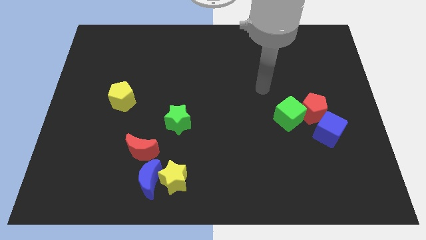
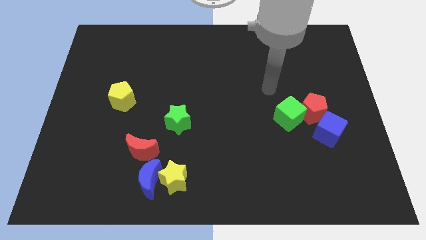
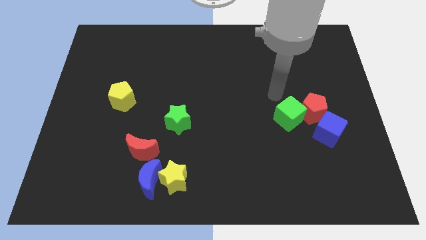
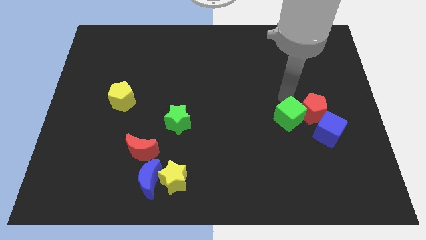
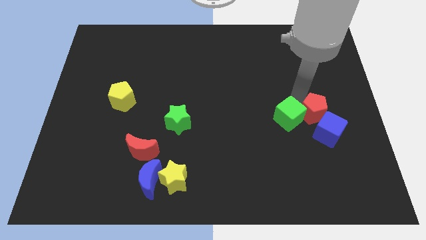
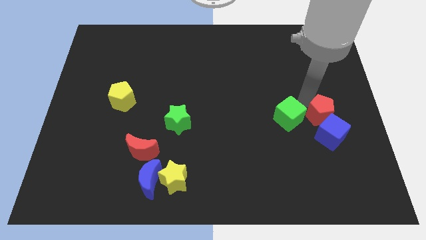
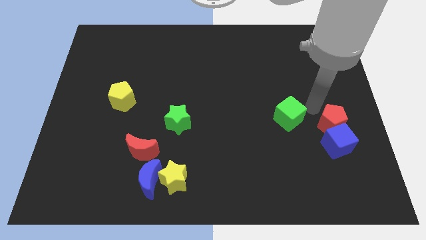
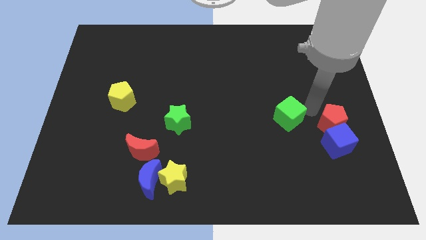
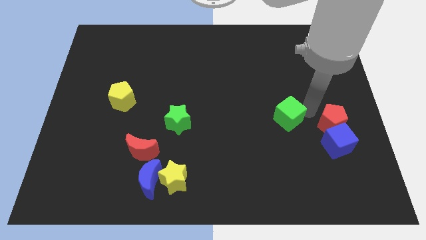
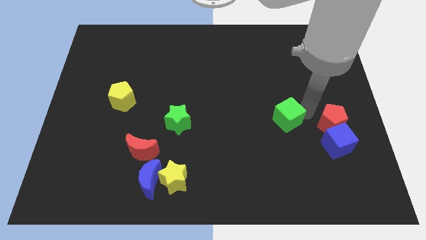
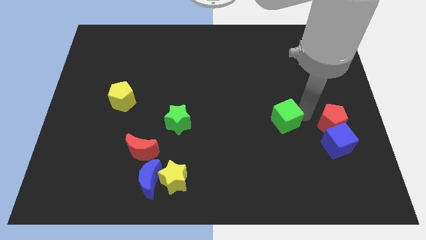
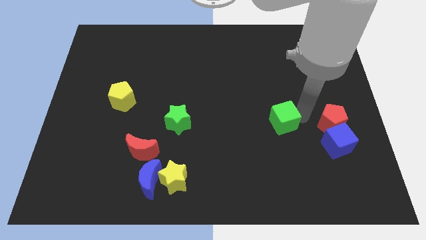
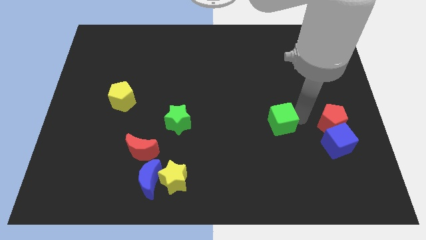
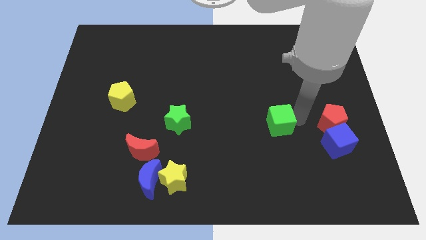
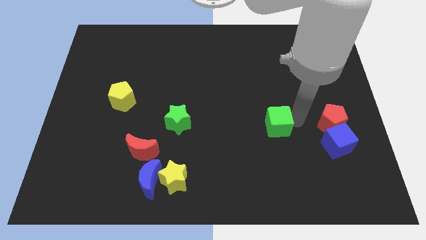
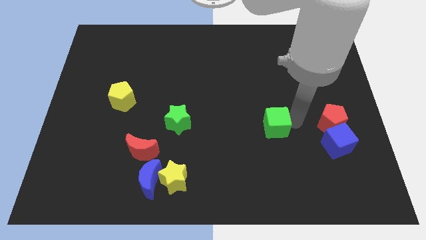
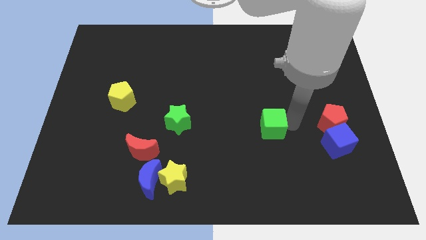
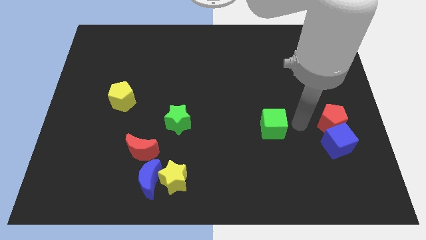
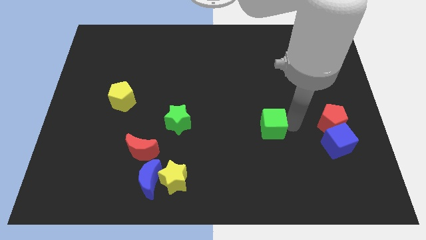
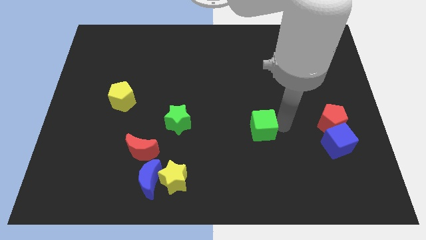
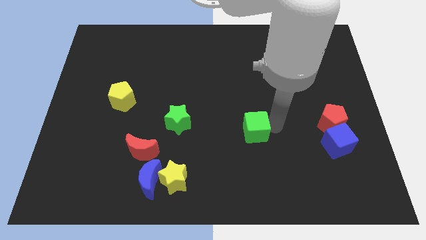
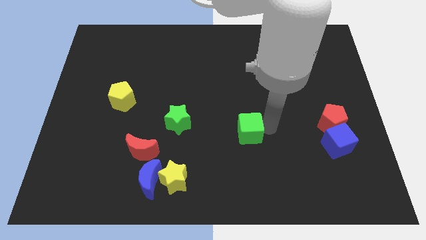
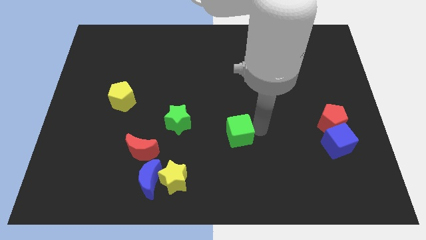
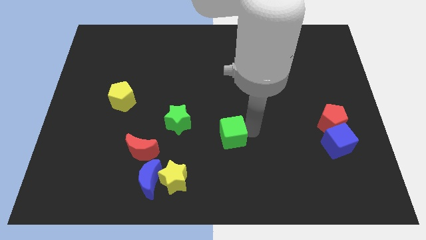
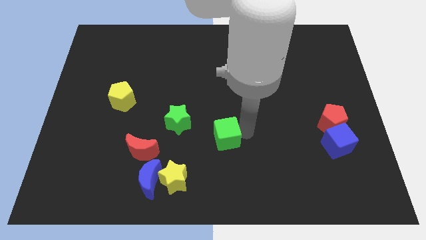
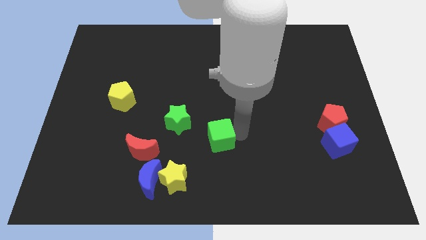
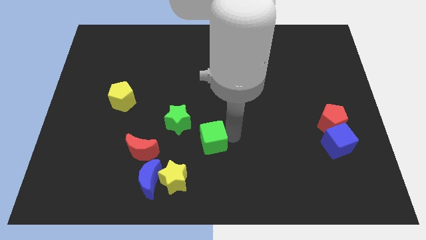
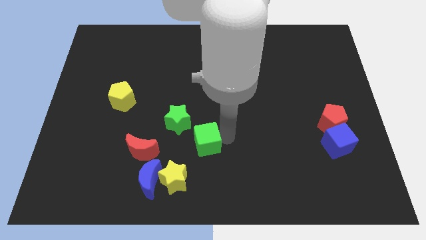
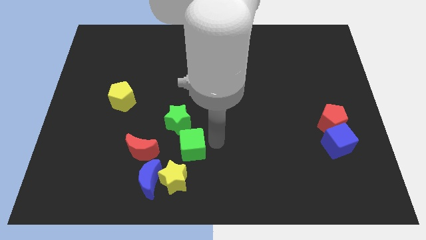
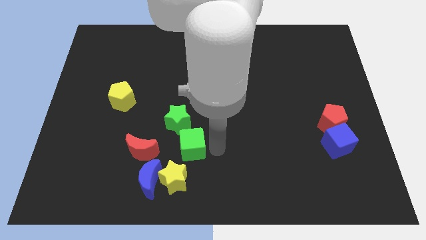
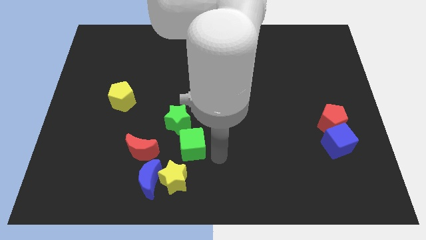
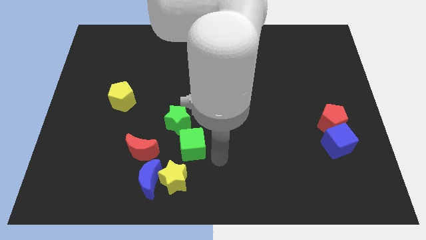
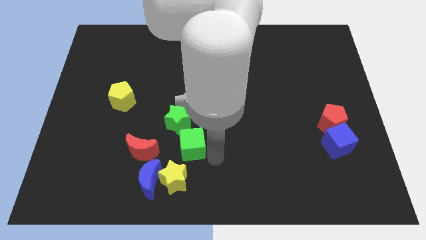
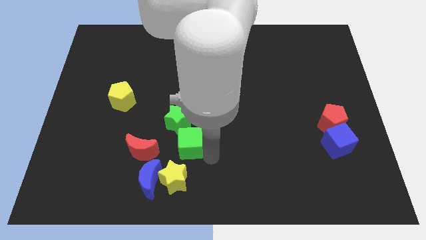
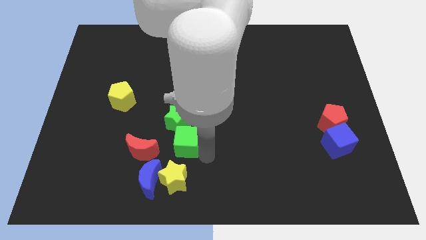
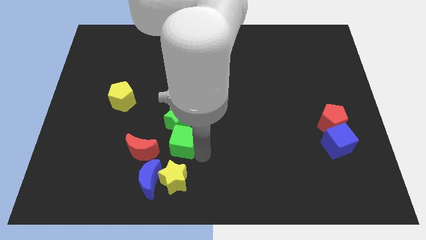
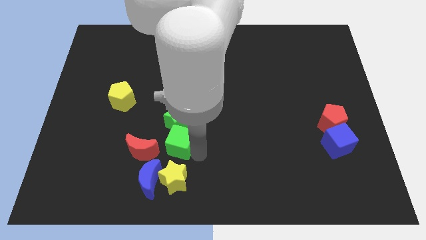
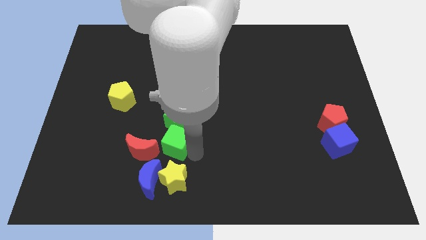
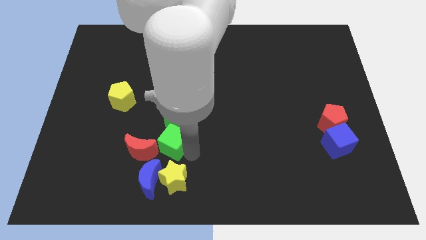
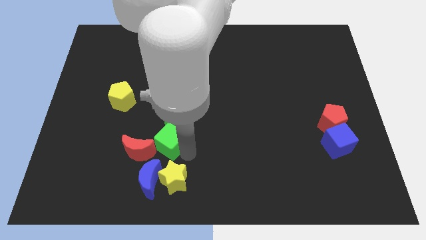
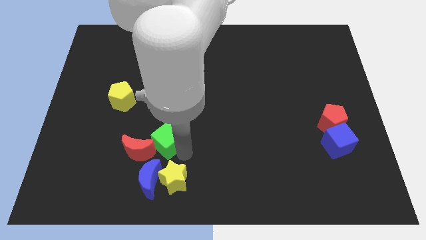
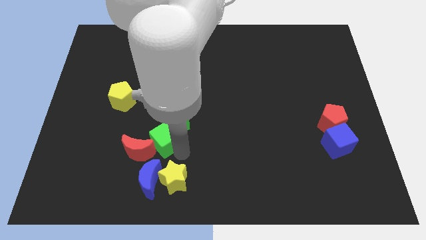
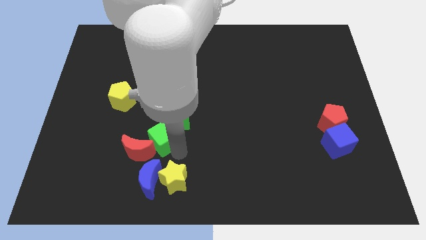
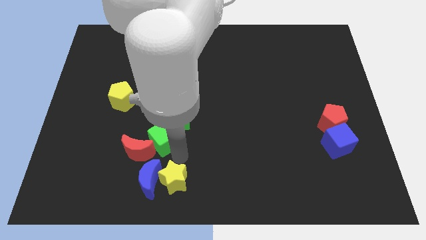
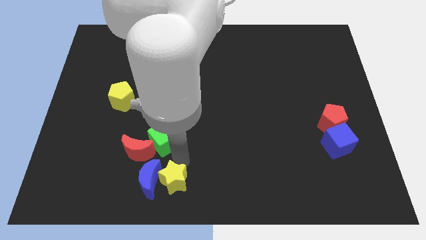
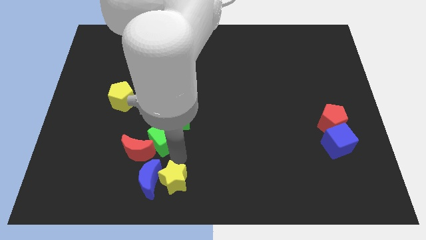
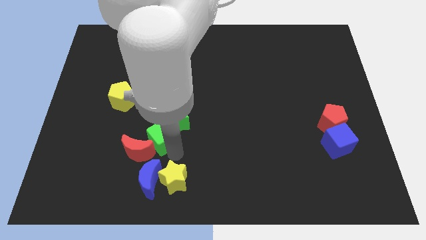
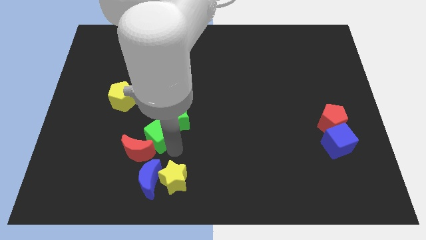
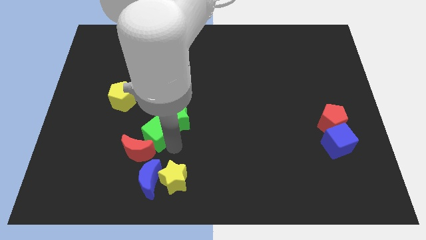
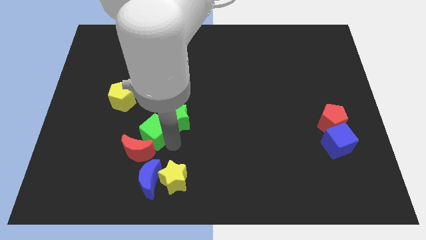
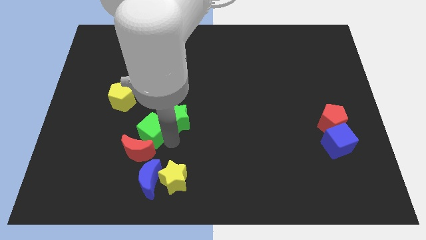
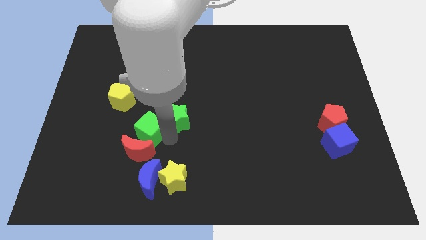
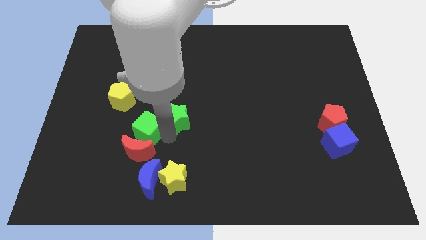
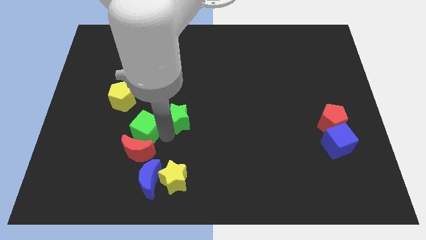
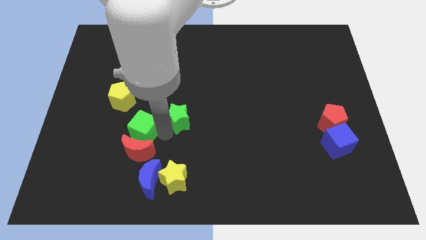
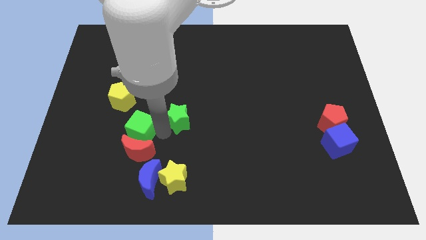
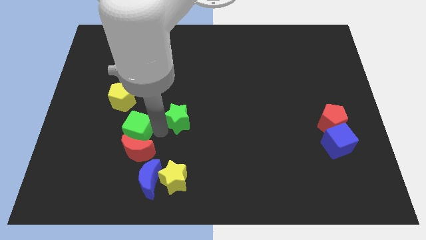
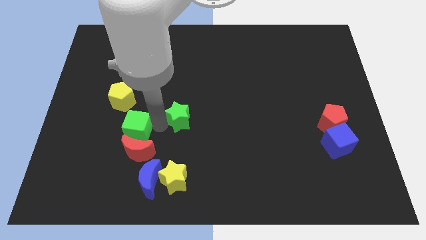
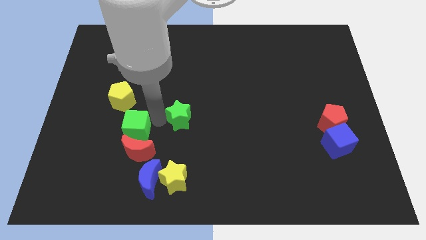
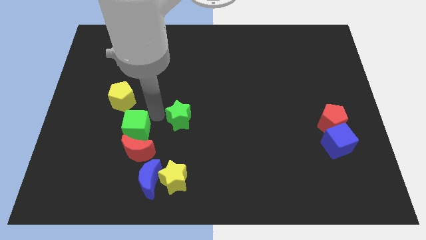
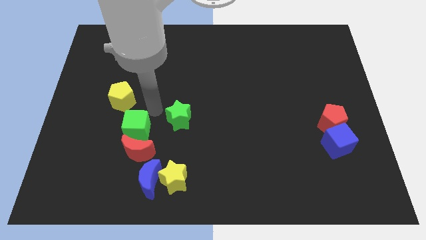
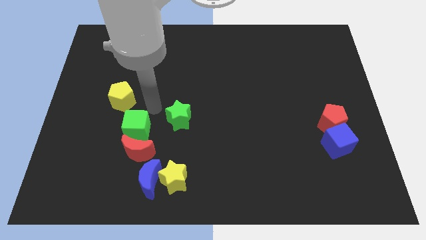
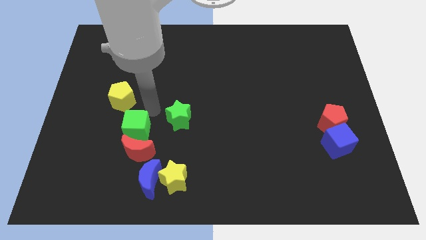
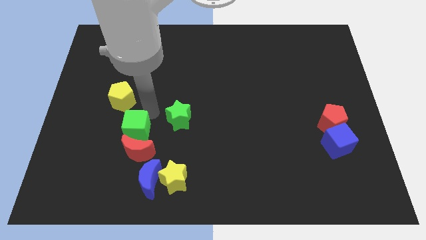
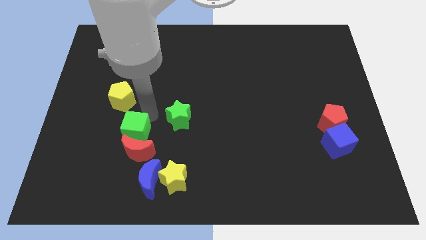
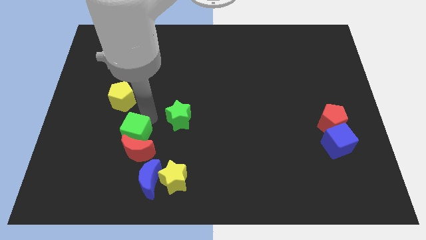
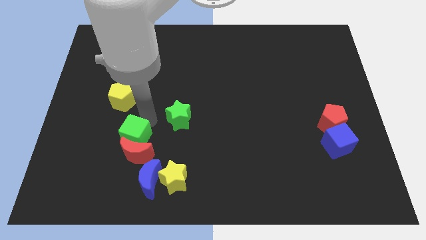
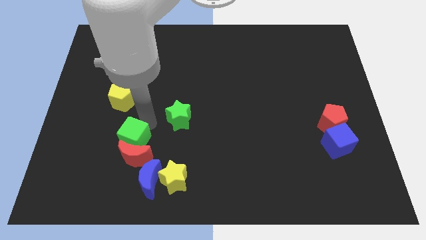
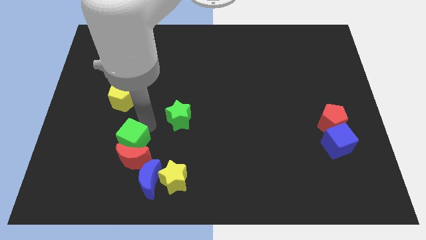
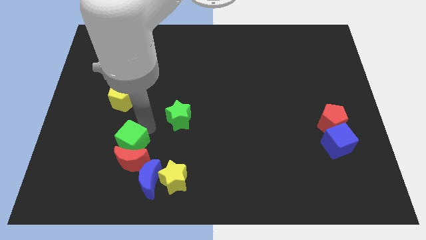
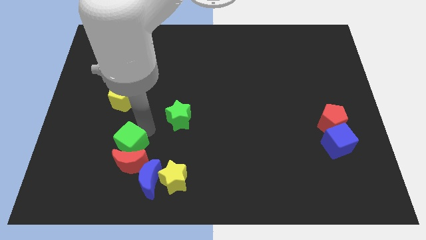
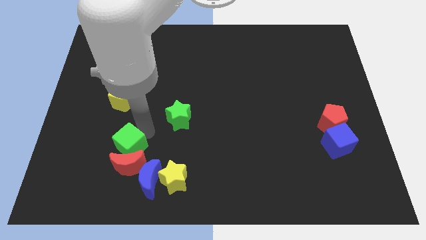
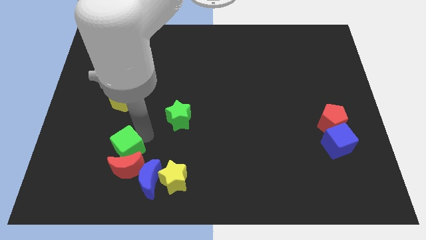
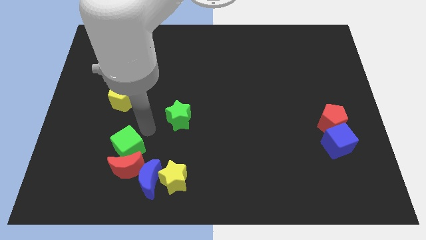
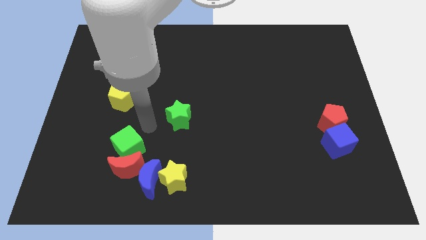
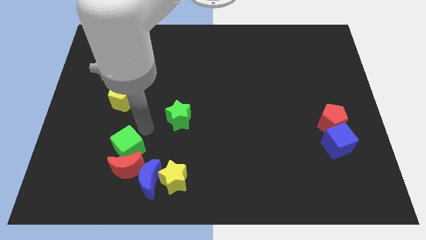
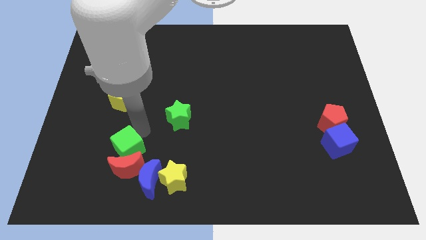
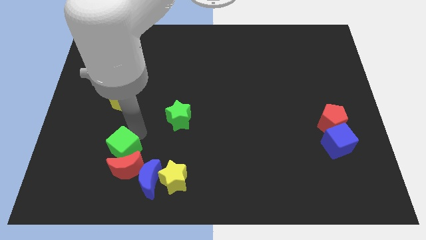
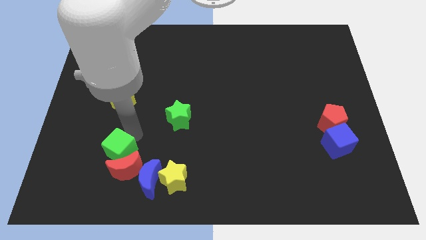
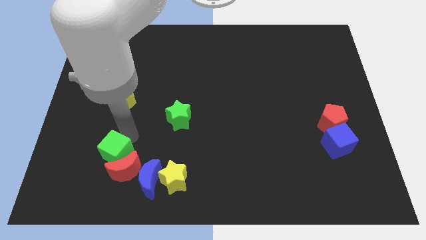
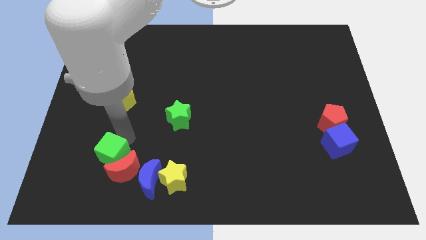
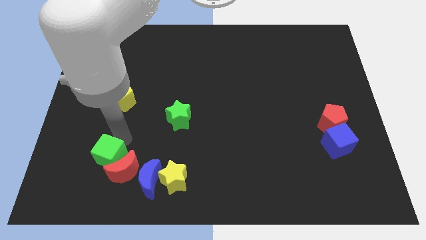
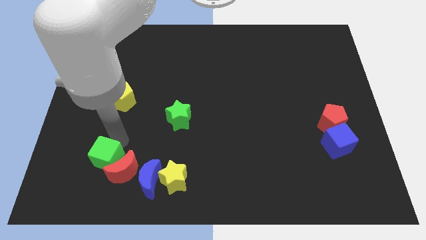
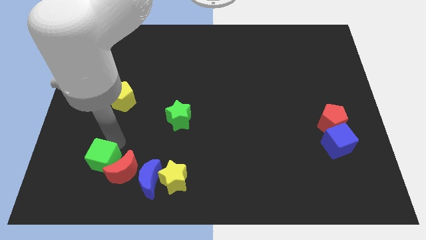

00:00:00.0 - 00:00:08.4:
put the green cube just left of the blue moon
